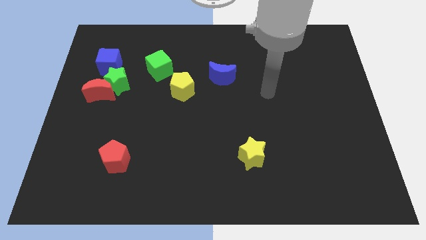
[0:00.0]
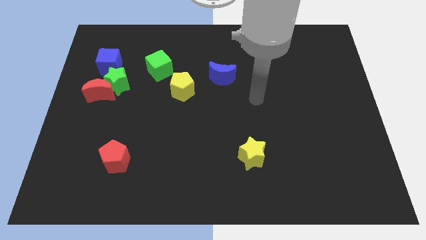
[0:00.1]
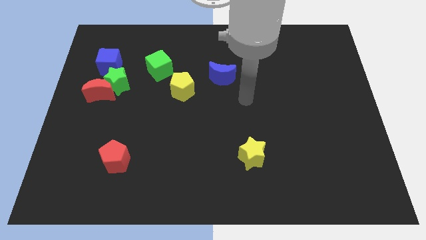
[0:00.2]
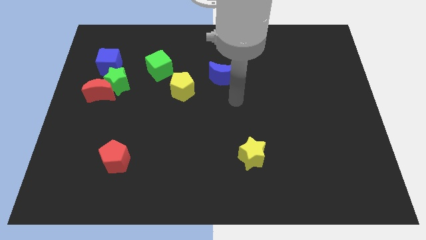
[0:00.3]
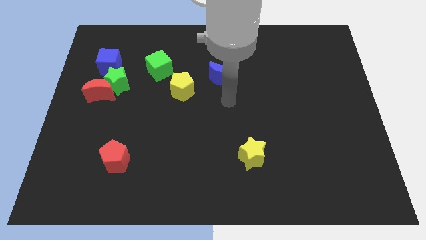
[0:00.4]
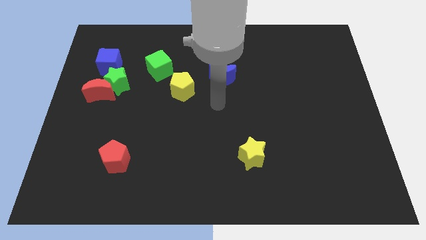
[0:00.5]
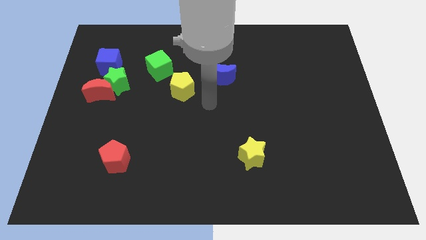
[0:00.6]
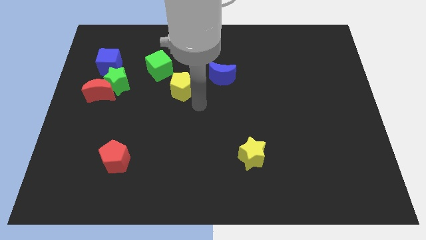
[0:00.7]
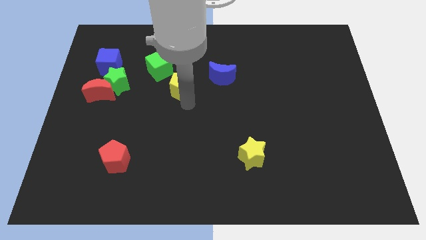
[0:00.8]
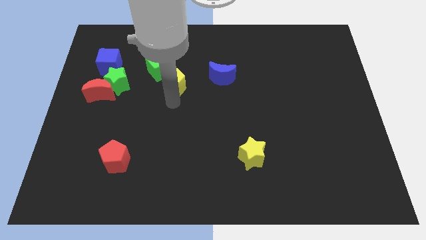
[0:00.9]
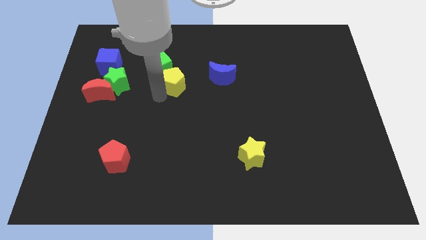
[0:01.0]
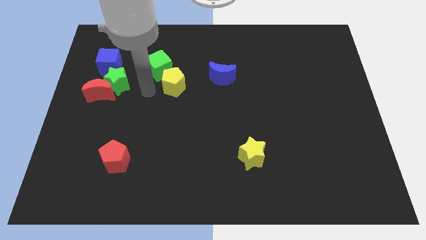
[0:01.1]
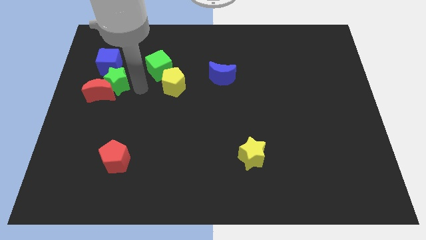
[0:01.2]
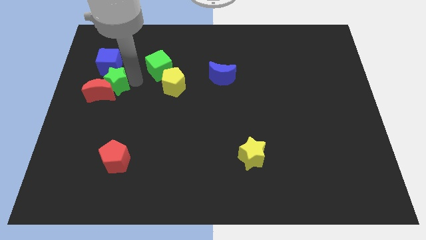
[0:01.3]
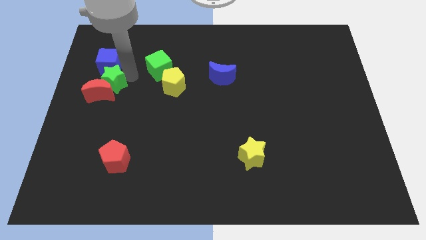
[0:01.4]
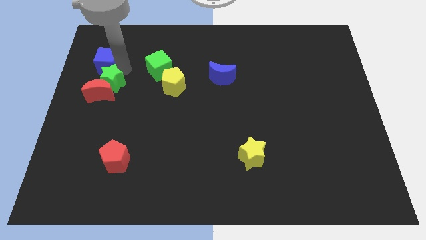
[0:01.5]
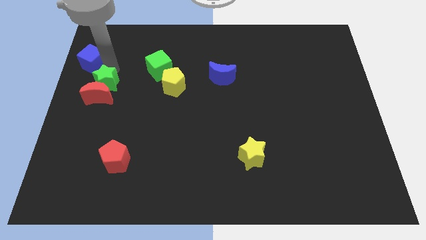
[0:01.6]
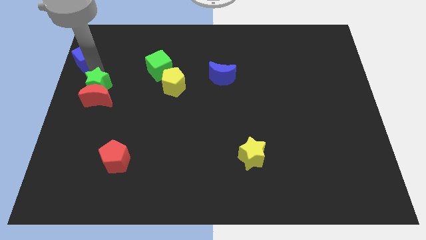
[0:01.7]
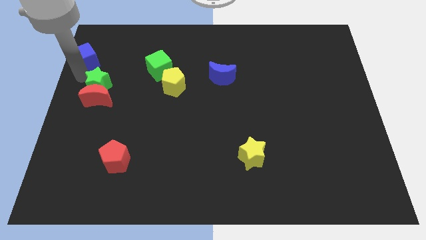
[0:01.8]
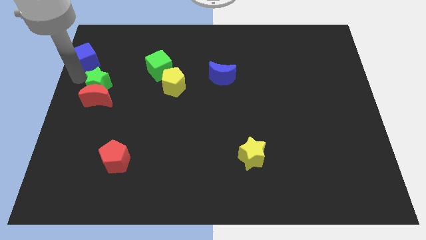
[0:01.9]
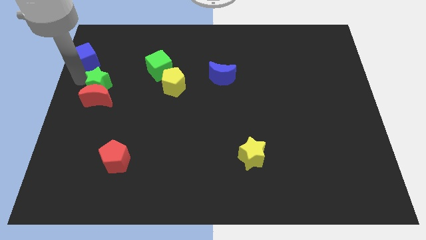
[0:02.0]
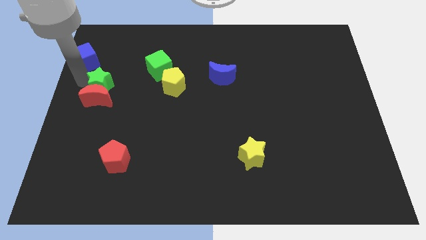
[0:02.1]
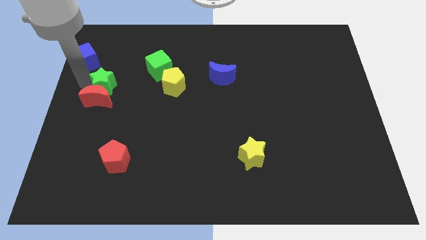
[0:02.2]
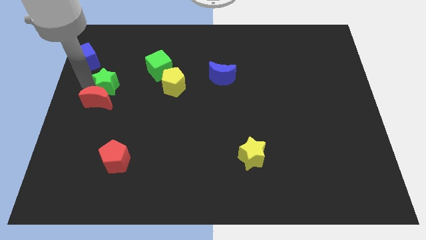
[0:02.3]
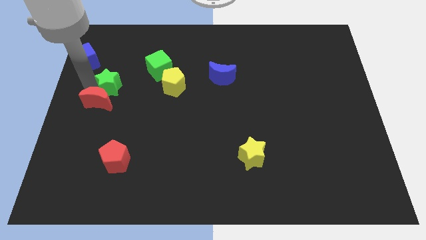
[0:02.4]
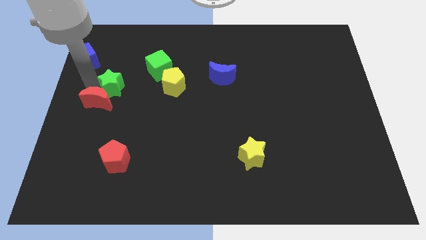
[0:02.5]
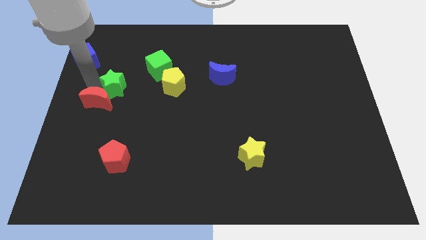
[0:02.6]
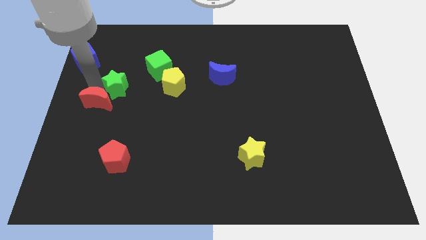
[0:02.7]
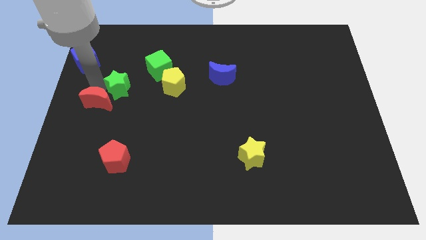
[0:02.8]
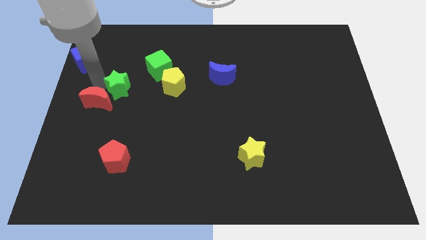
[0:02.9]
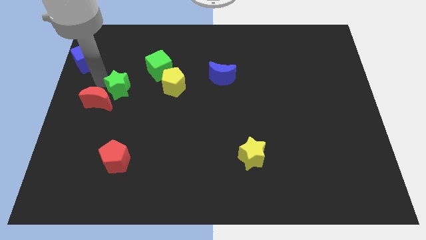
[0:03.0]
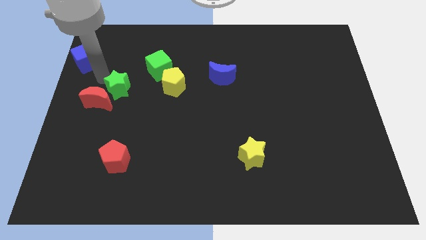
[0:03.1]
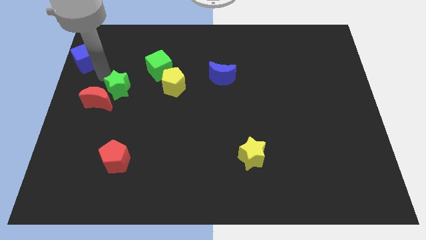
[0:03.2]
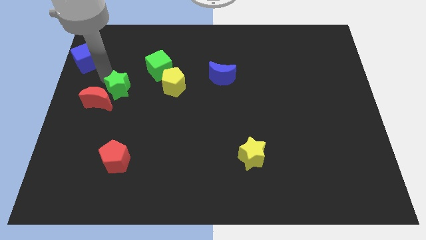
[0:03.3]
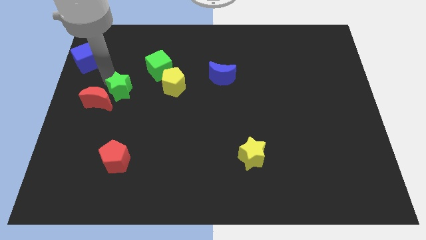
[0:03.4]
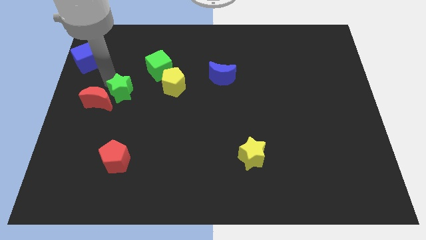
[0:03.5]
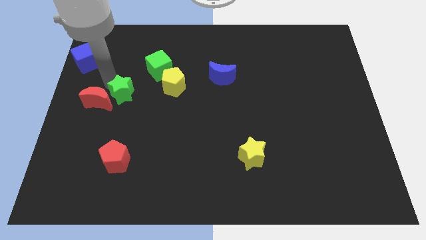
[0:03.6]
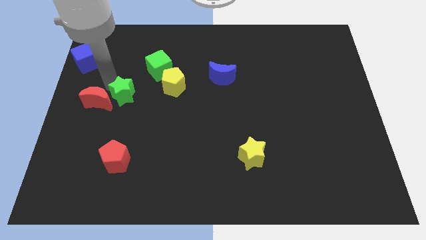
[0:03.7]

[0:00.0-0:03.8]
separate the green star from the red moon and blue cube

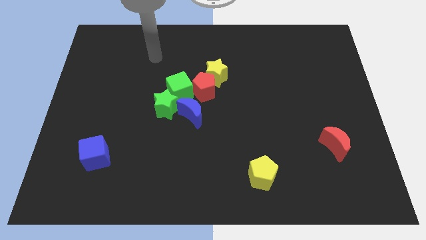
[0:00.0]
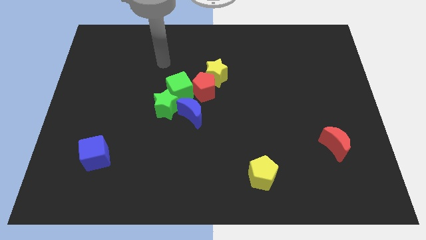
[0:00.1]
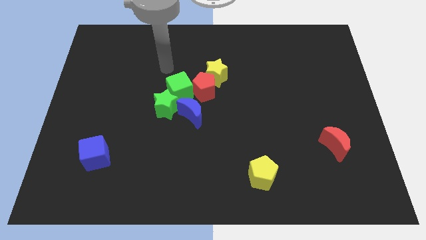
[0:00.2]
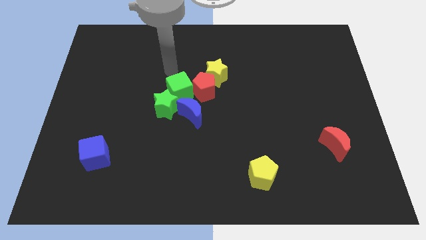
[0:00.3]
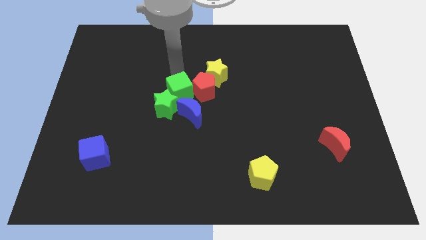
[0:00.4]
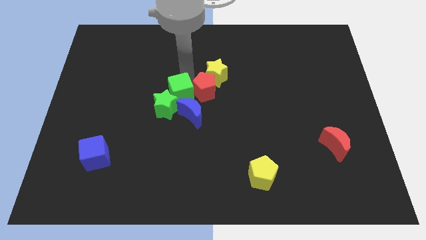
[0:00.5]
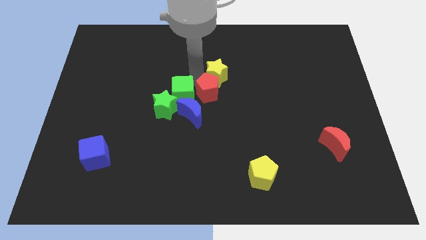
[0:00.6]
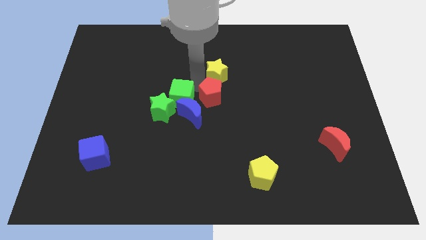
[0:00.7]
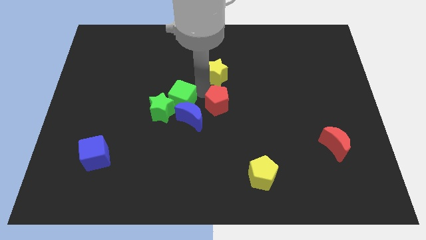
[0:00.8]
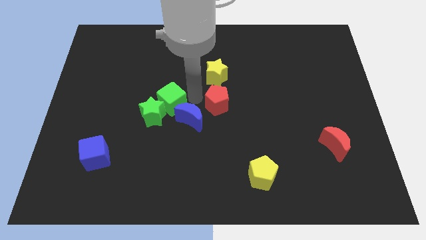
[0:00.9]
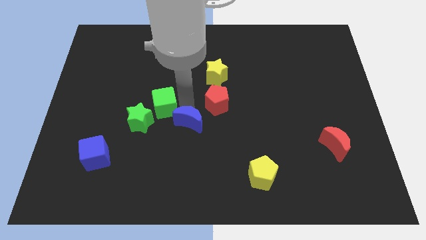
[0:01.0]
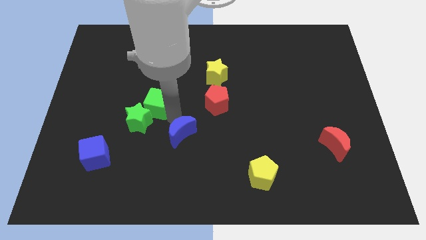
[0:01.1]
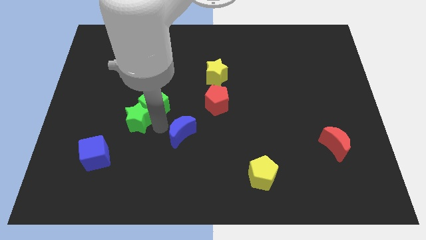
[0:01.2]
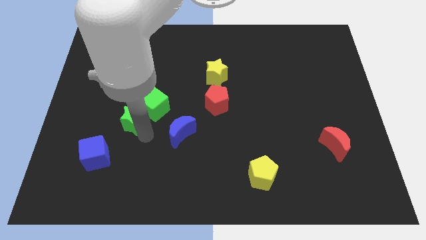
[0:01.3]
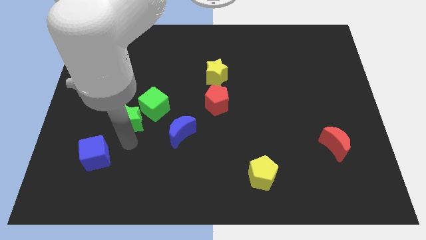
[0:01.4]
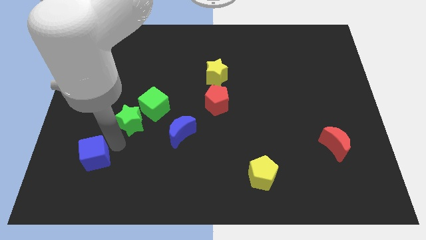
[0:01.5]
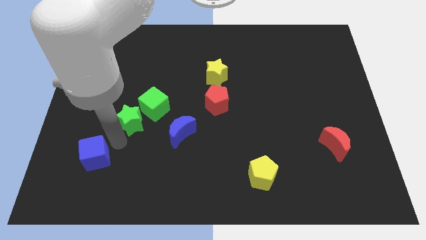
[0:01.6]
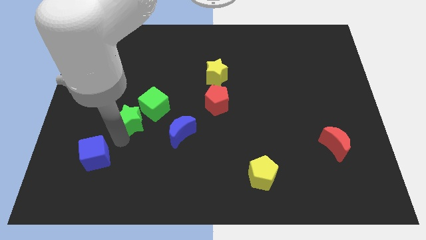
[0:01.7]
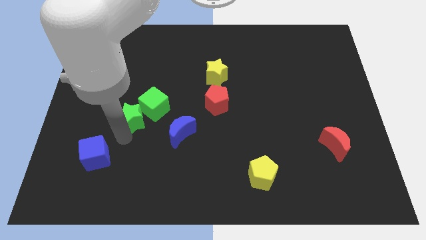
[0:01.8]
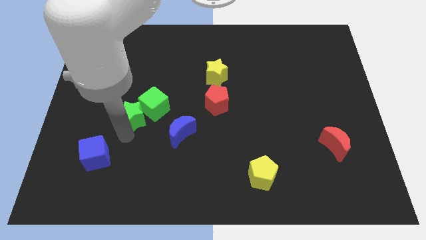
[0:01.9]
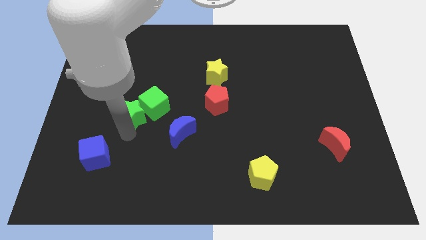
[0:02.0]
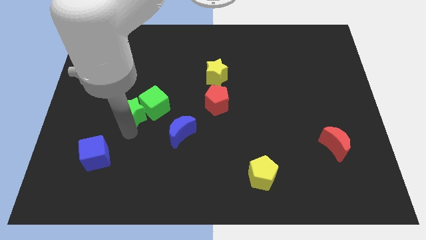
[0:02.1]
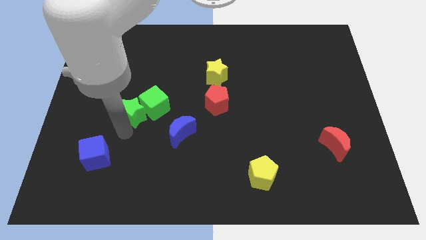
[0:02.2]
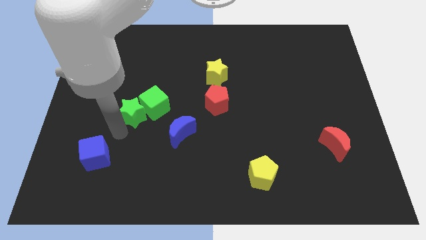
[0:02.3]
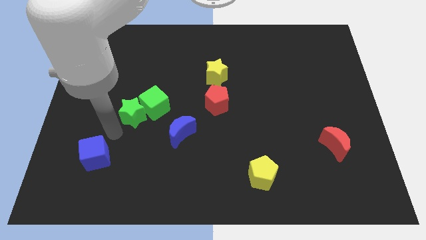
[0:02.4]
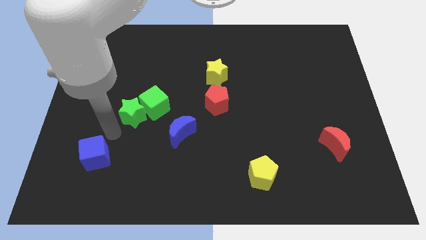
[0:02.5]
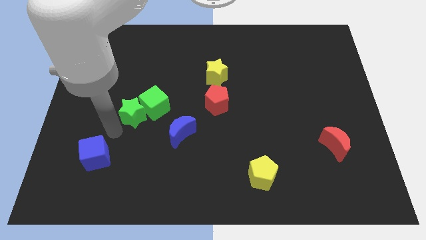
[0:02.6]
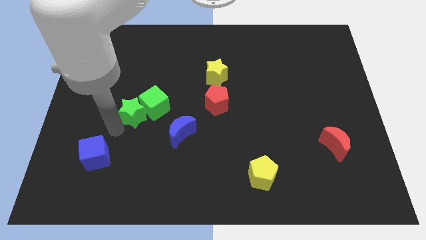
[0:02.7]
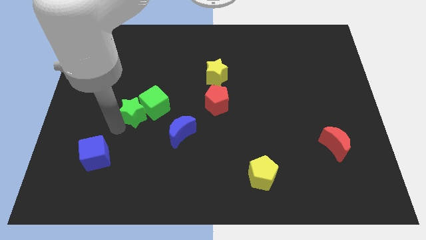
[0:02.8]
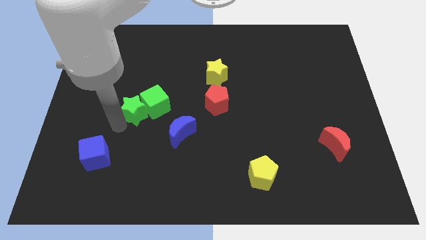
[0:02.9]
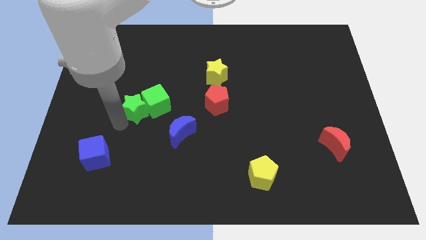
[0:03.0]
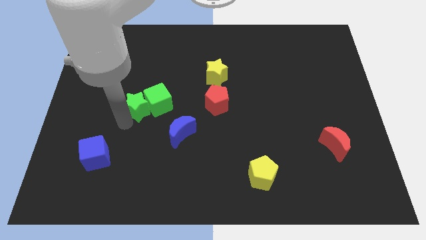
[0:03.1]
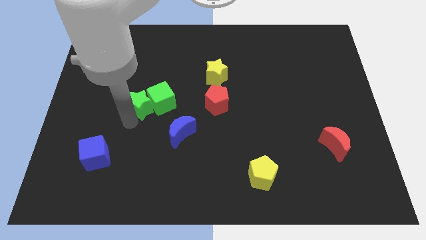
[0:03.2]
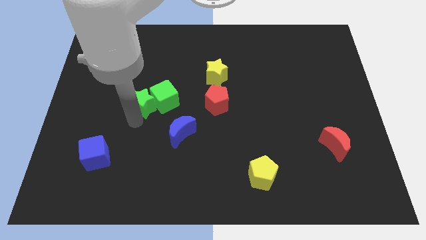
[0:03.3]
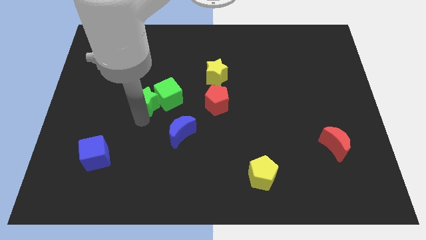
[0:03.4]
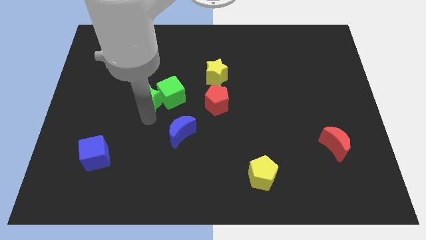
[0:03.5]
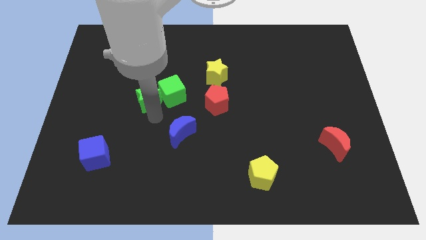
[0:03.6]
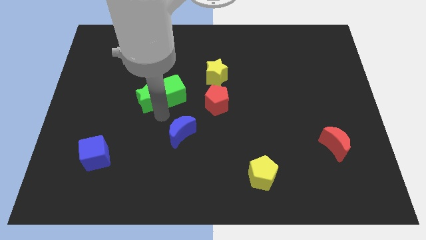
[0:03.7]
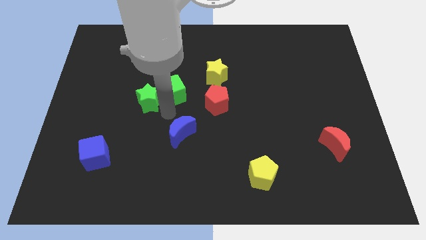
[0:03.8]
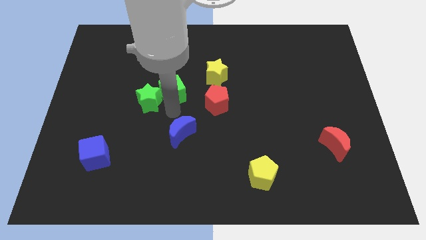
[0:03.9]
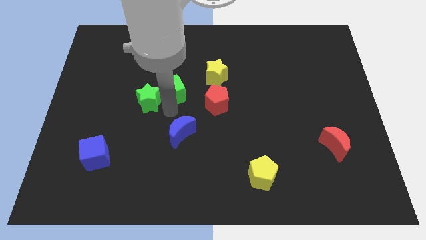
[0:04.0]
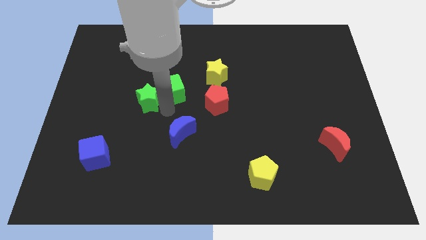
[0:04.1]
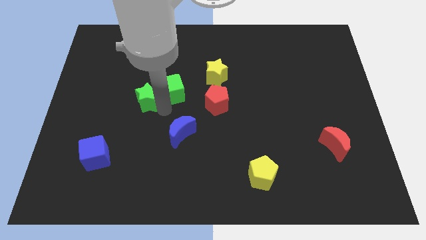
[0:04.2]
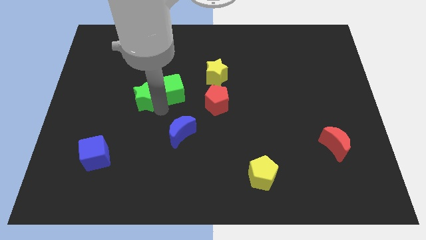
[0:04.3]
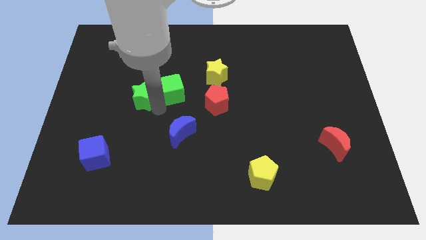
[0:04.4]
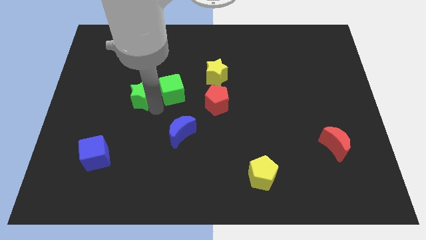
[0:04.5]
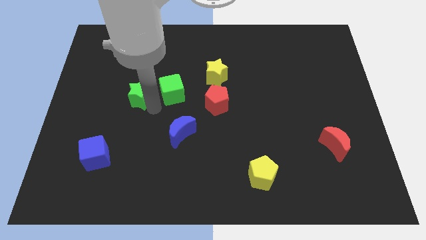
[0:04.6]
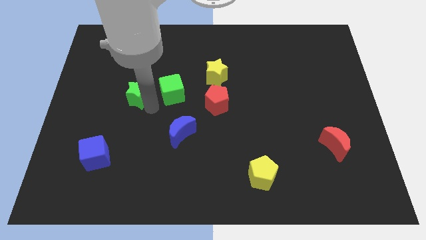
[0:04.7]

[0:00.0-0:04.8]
move the green star away from the green cube and blue moon

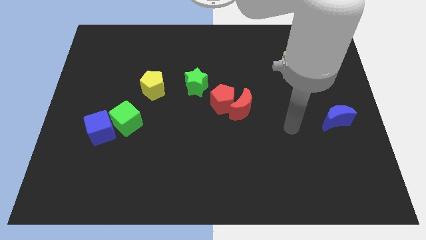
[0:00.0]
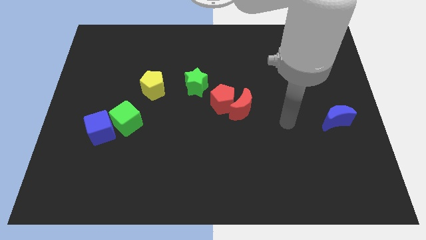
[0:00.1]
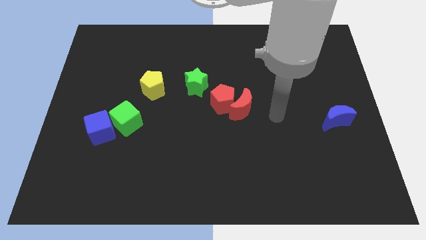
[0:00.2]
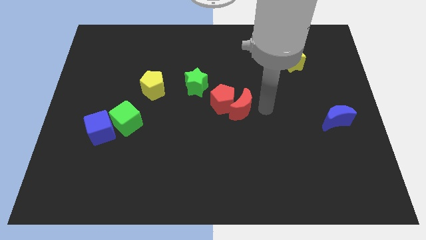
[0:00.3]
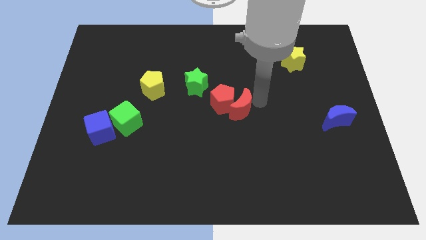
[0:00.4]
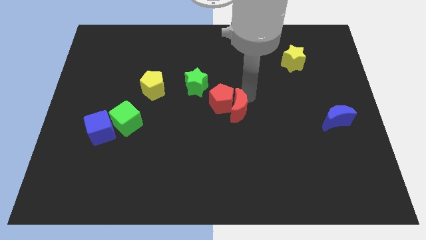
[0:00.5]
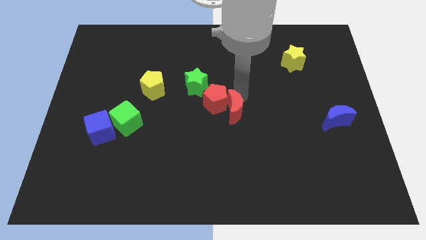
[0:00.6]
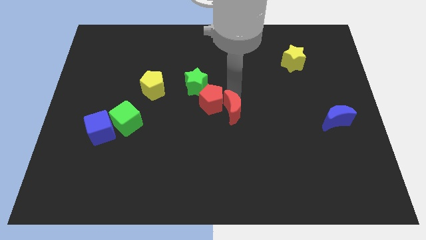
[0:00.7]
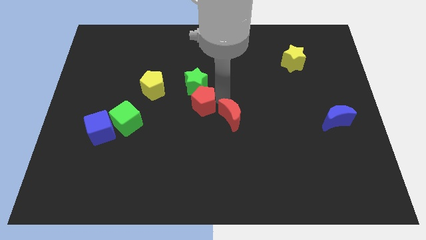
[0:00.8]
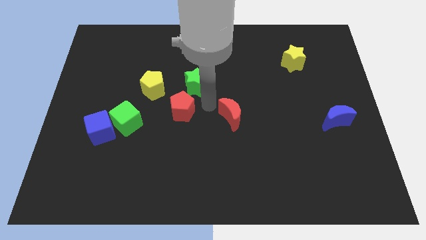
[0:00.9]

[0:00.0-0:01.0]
move the red moon away from the red pentagon
